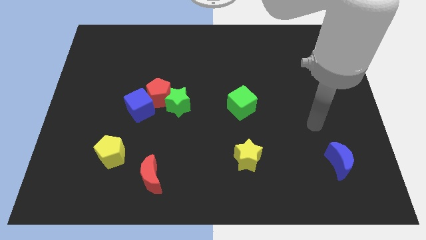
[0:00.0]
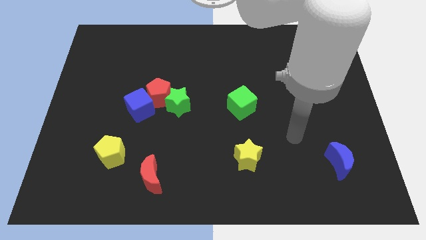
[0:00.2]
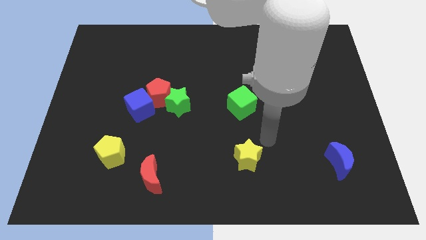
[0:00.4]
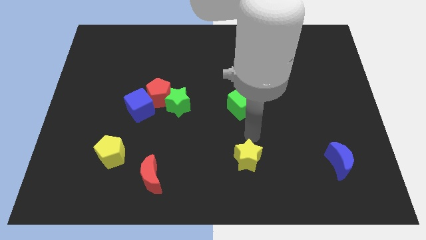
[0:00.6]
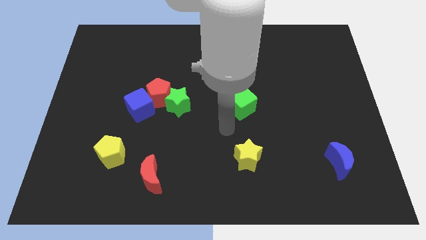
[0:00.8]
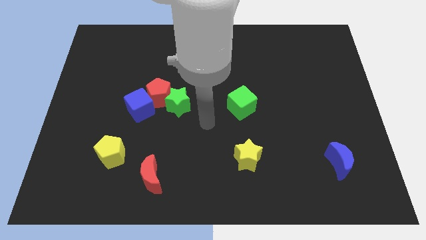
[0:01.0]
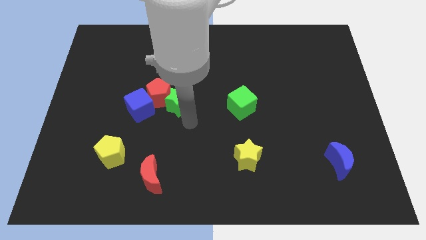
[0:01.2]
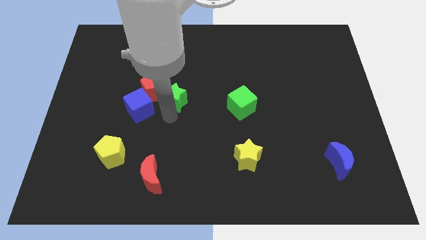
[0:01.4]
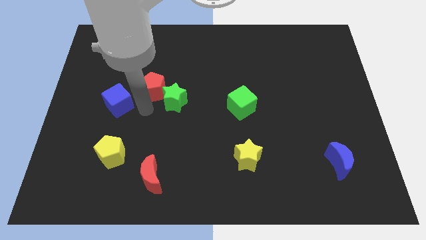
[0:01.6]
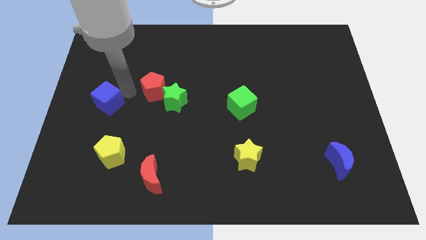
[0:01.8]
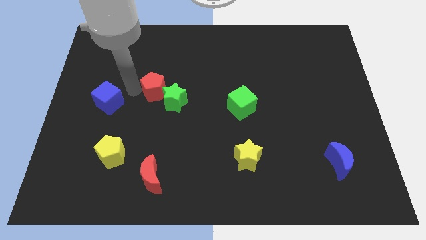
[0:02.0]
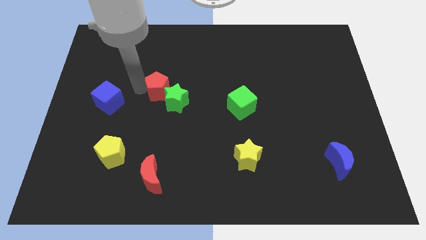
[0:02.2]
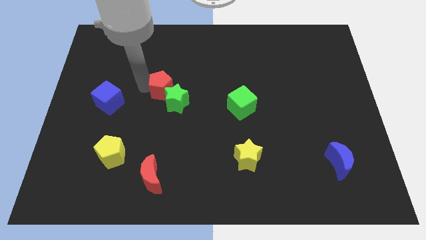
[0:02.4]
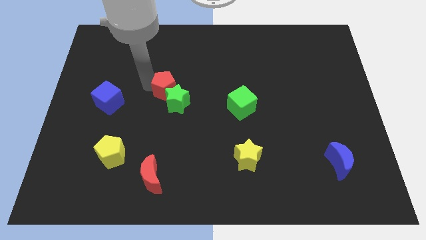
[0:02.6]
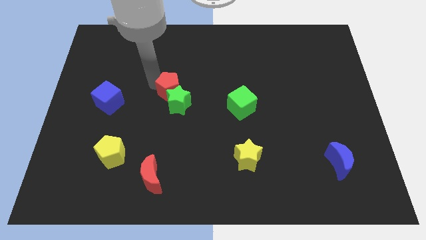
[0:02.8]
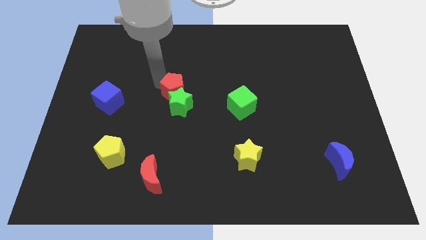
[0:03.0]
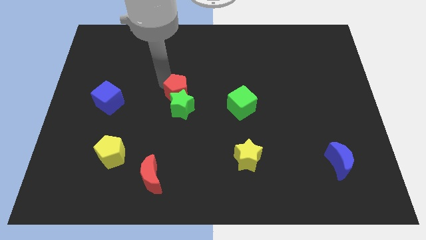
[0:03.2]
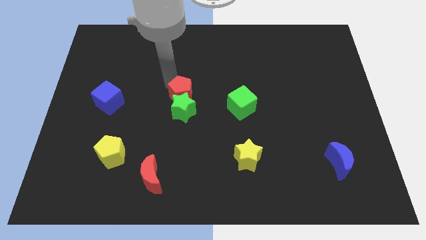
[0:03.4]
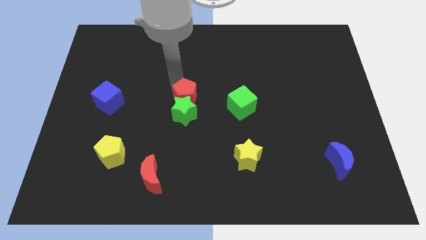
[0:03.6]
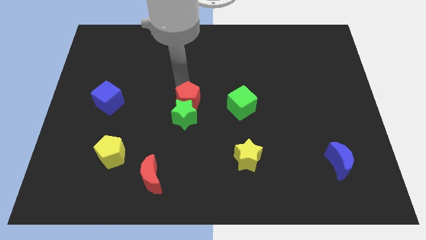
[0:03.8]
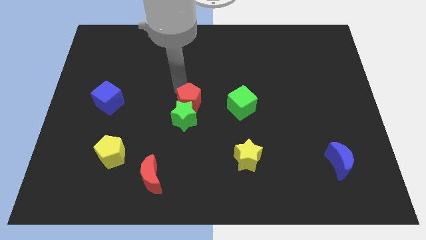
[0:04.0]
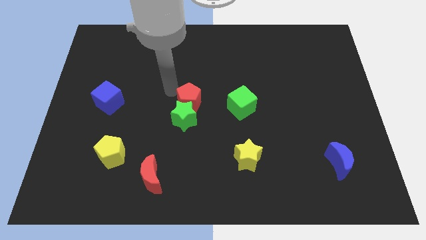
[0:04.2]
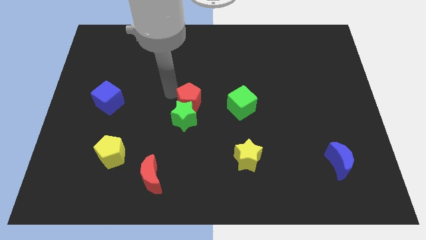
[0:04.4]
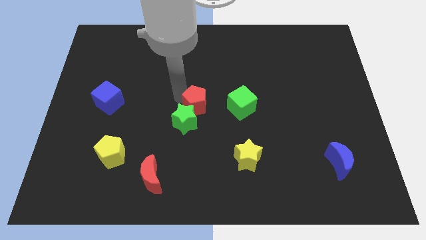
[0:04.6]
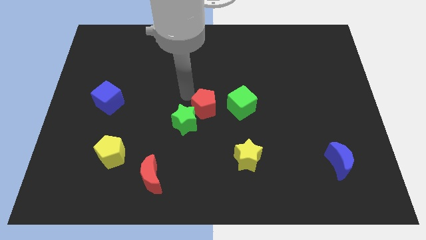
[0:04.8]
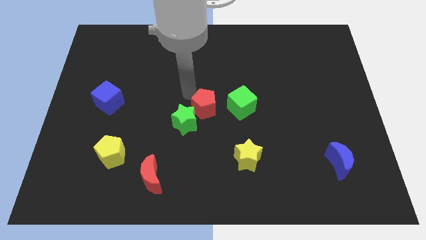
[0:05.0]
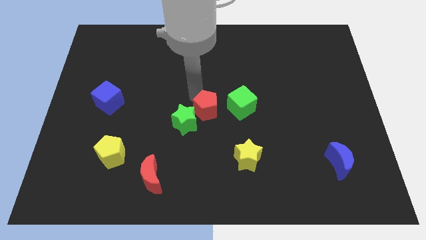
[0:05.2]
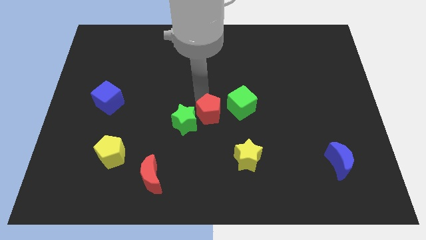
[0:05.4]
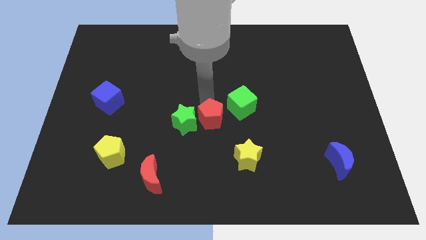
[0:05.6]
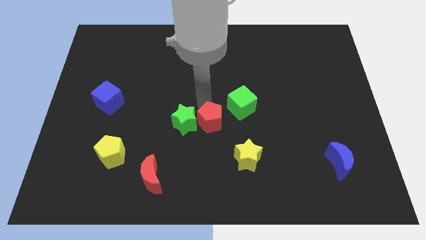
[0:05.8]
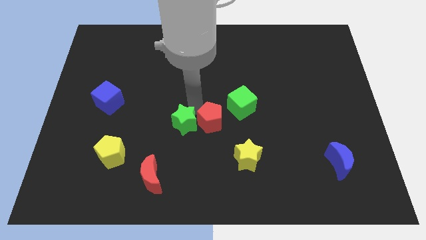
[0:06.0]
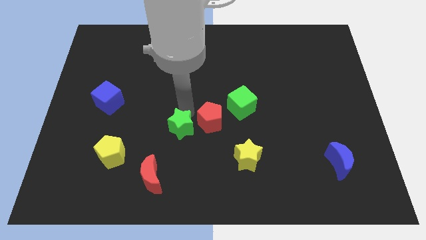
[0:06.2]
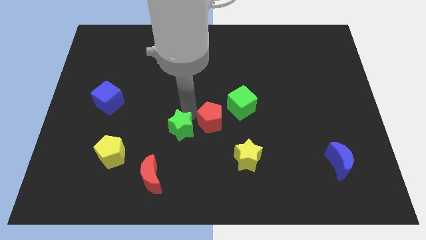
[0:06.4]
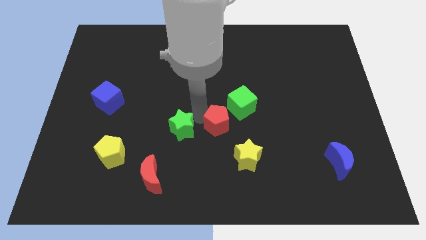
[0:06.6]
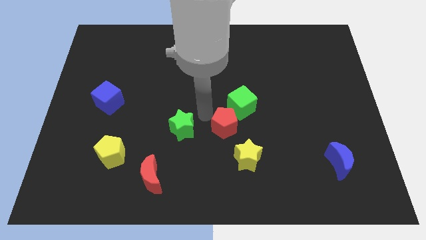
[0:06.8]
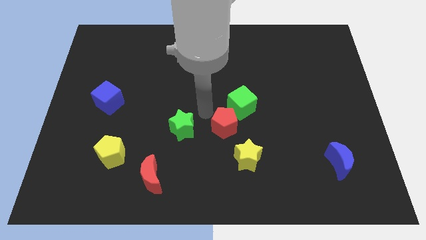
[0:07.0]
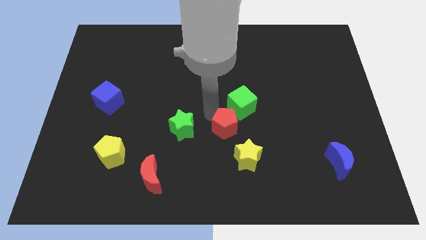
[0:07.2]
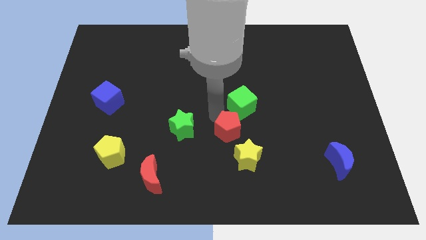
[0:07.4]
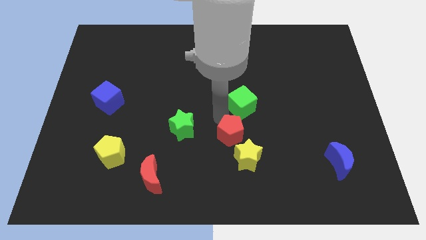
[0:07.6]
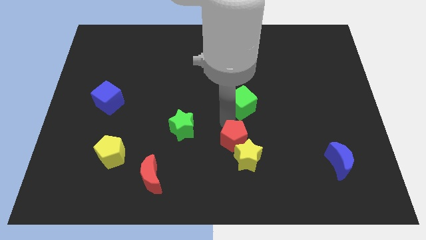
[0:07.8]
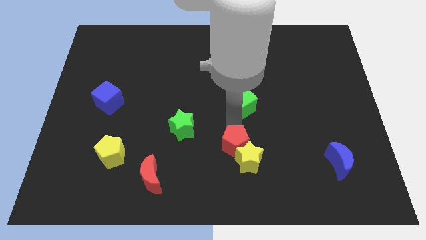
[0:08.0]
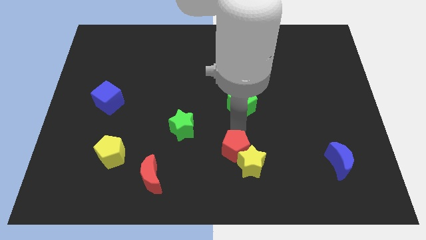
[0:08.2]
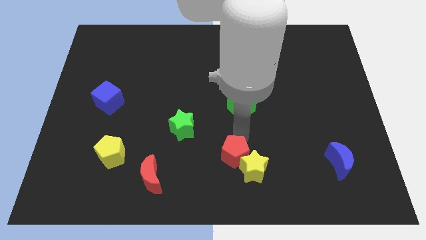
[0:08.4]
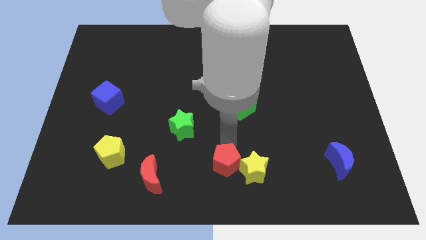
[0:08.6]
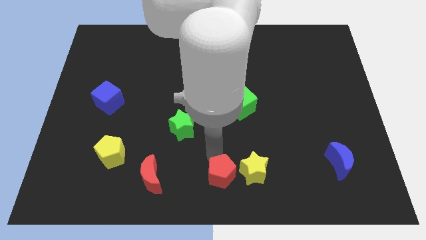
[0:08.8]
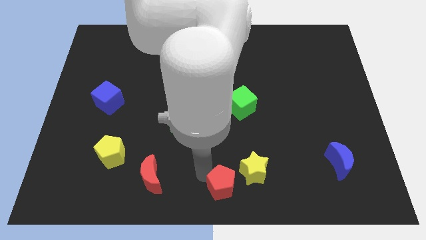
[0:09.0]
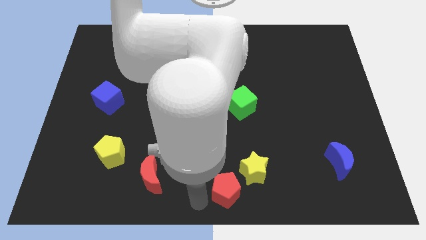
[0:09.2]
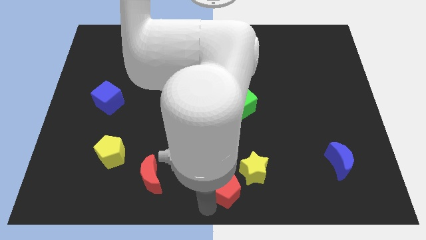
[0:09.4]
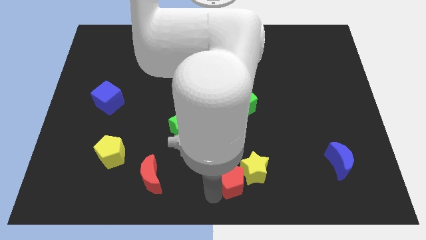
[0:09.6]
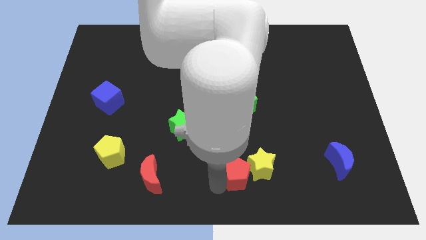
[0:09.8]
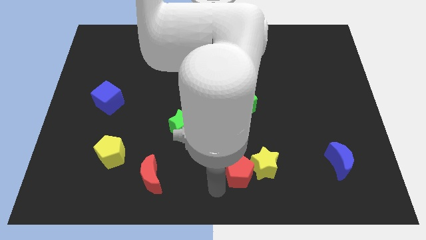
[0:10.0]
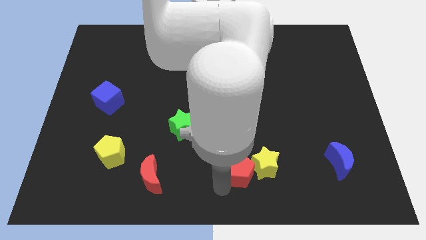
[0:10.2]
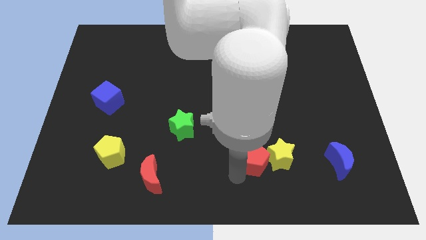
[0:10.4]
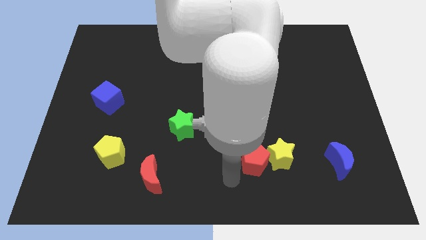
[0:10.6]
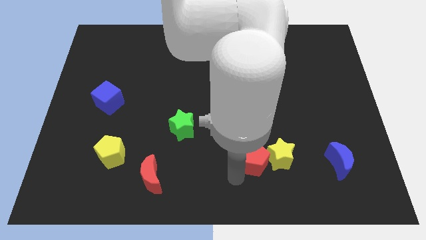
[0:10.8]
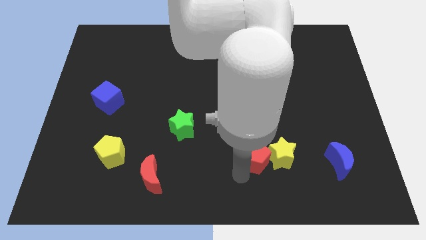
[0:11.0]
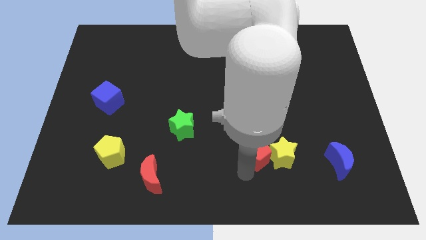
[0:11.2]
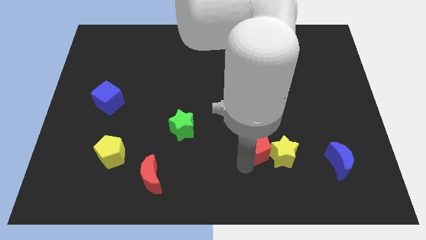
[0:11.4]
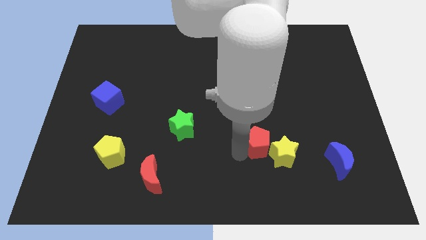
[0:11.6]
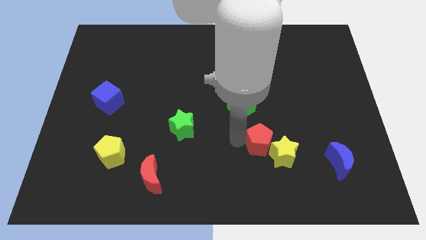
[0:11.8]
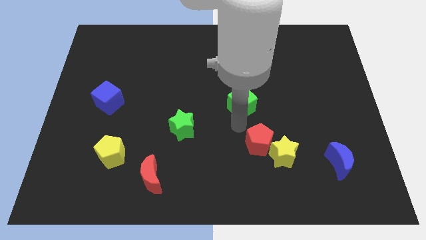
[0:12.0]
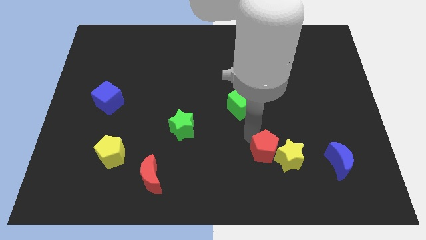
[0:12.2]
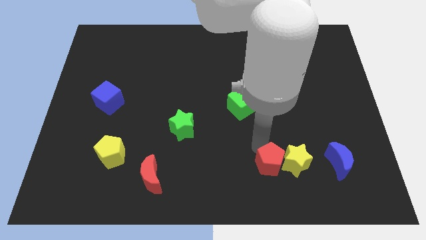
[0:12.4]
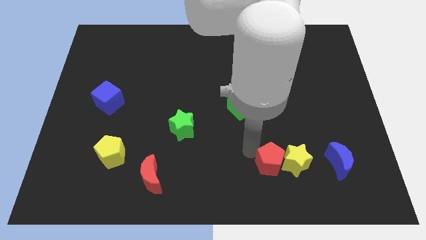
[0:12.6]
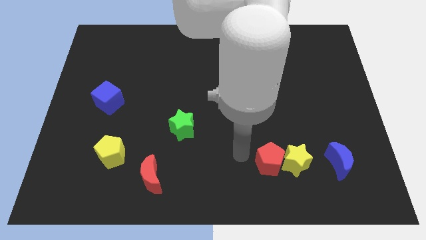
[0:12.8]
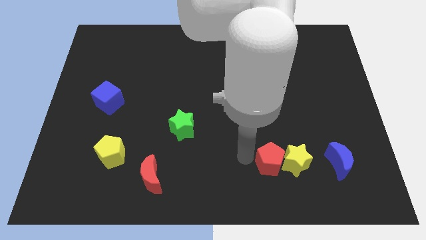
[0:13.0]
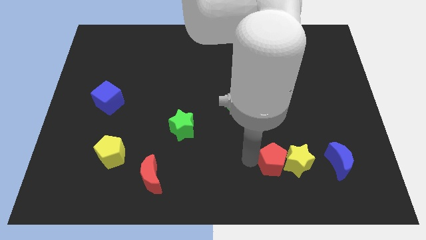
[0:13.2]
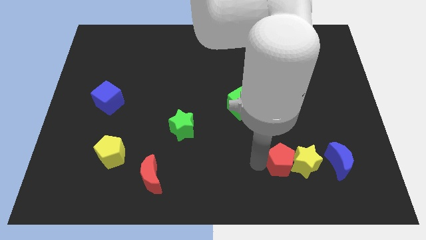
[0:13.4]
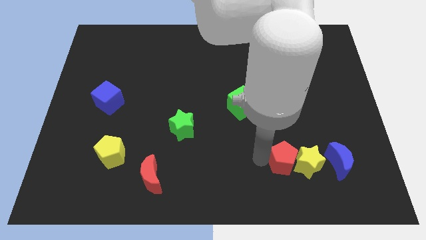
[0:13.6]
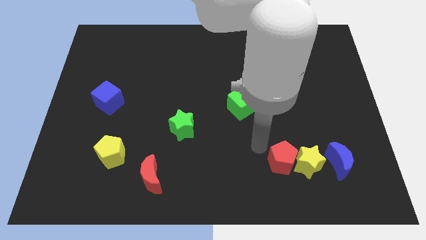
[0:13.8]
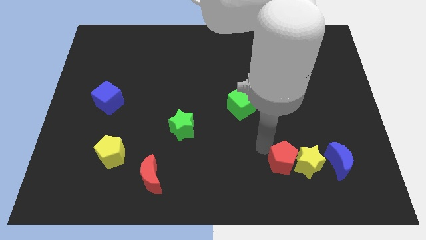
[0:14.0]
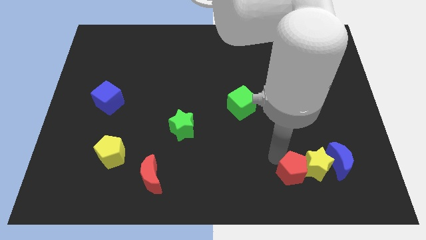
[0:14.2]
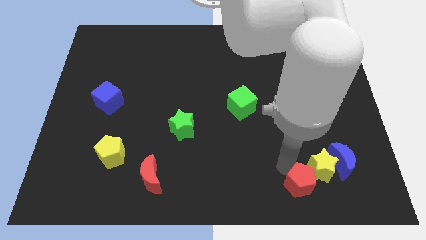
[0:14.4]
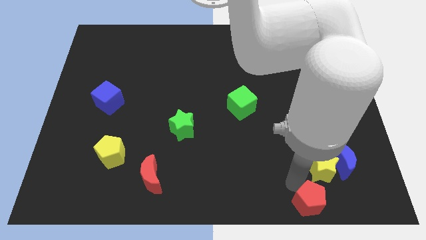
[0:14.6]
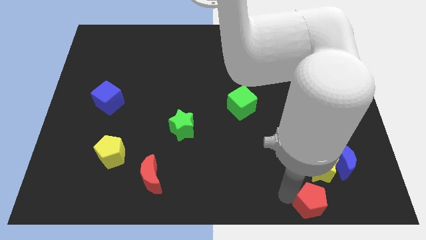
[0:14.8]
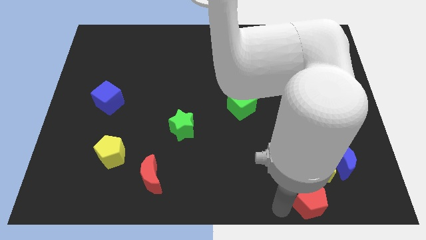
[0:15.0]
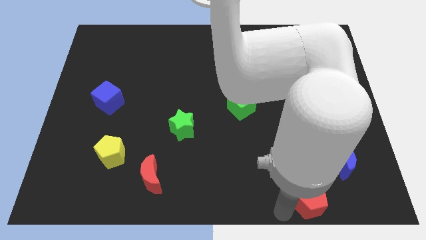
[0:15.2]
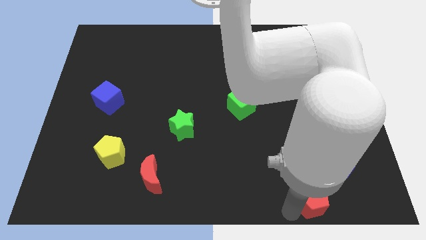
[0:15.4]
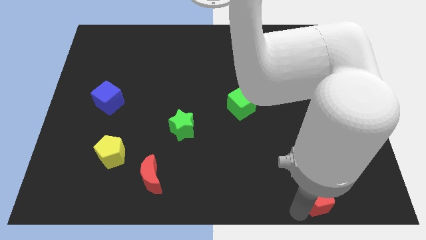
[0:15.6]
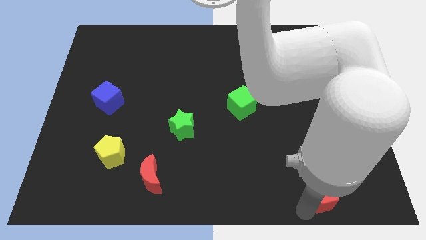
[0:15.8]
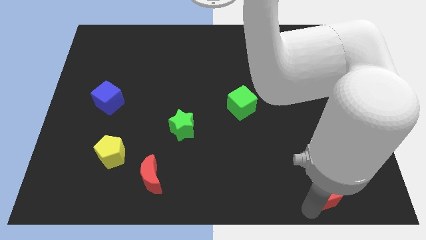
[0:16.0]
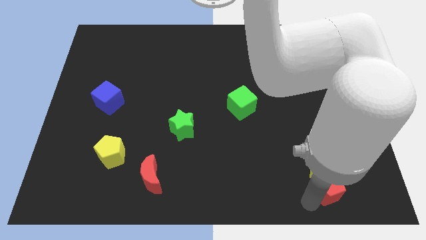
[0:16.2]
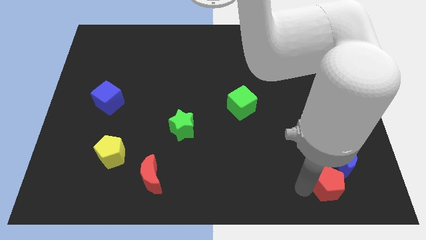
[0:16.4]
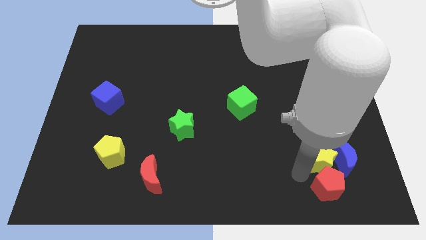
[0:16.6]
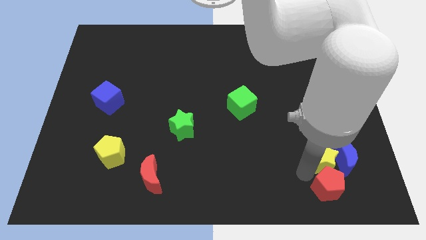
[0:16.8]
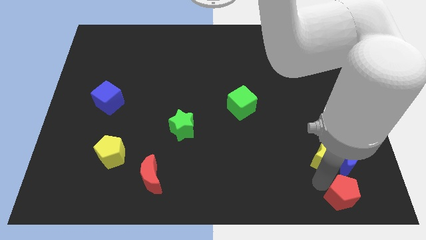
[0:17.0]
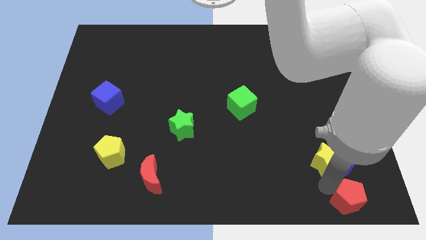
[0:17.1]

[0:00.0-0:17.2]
move the red pentagon to the bottom right of the board
